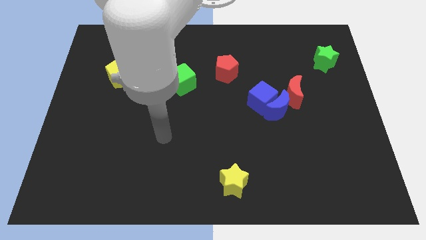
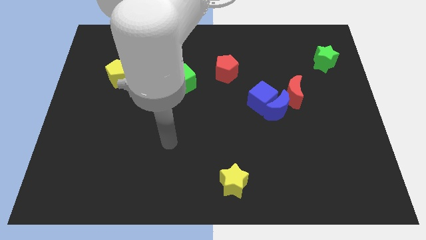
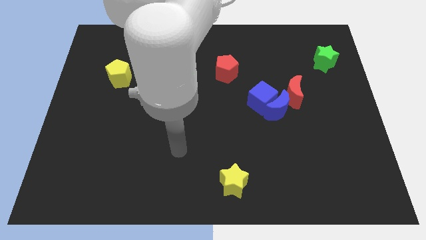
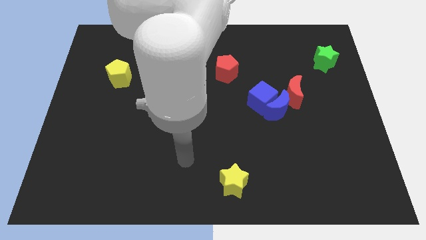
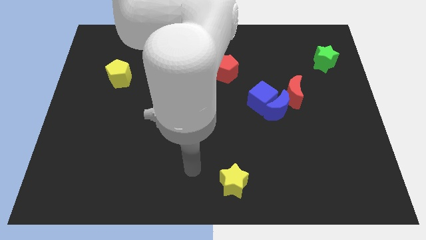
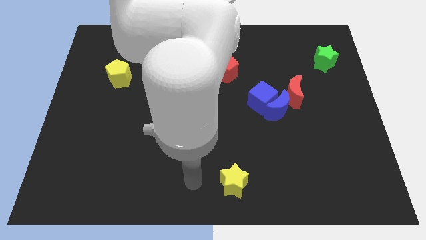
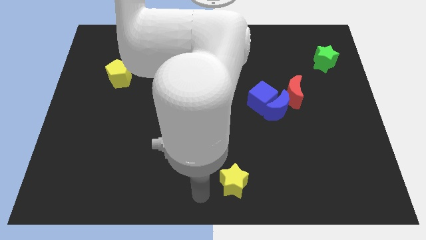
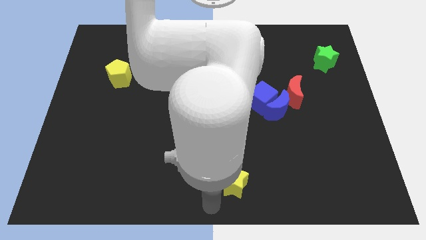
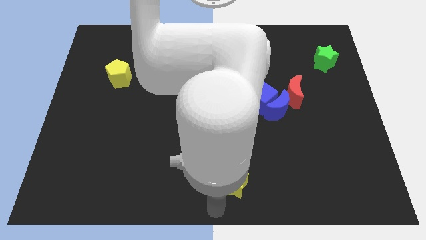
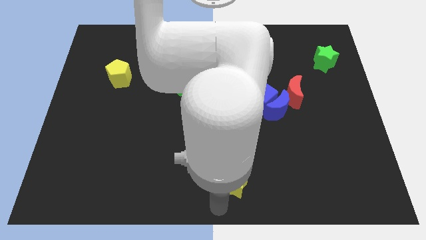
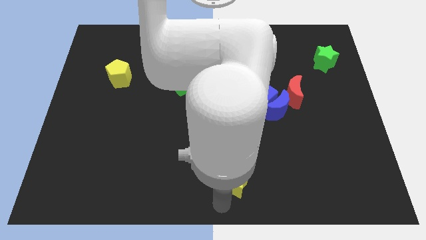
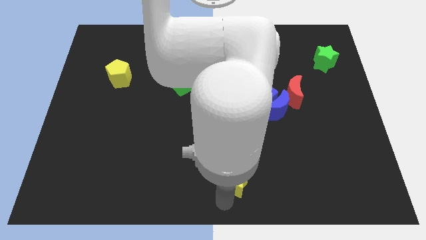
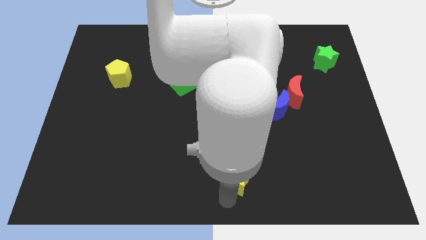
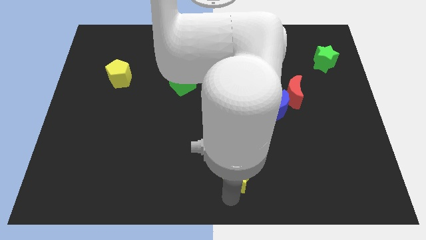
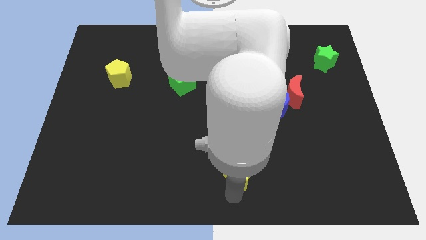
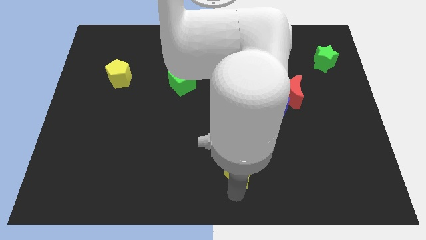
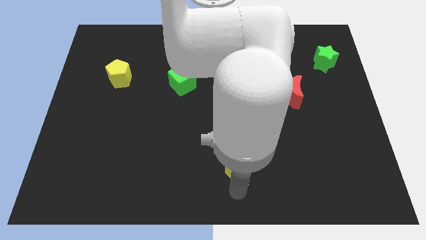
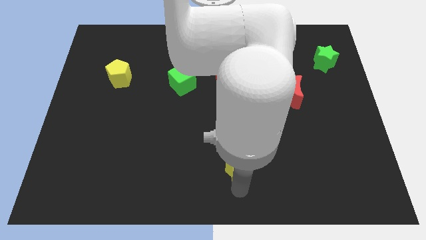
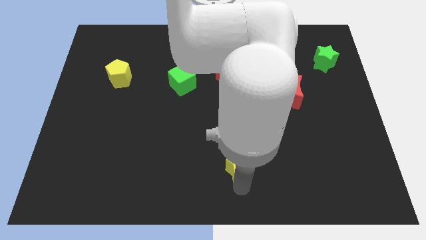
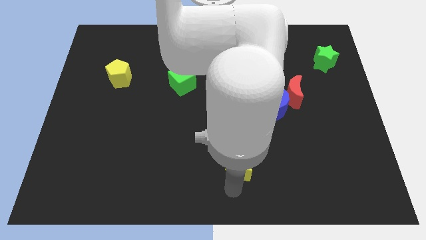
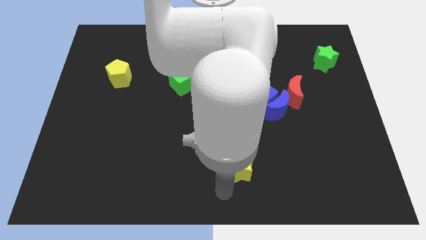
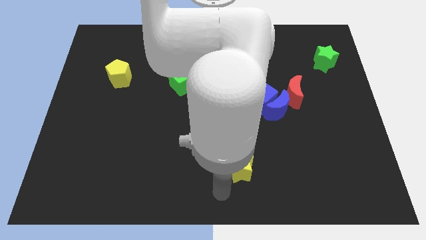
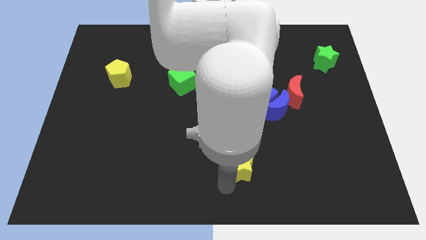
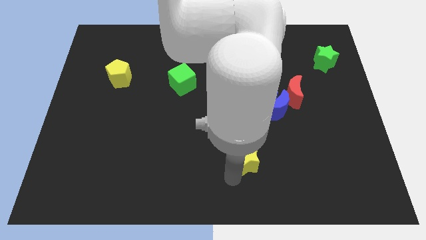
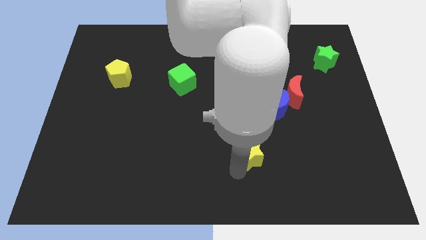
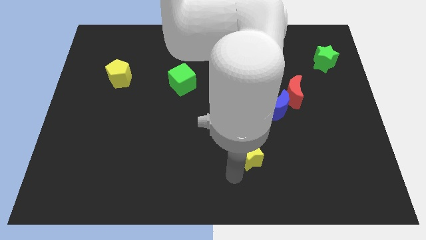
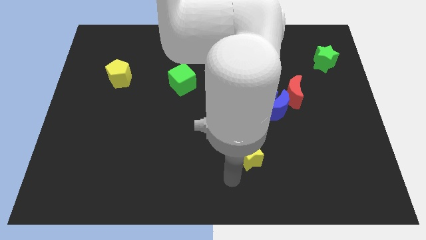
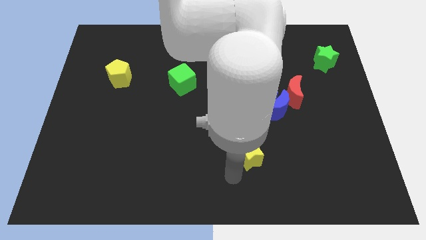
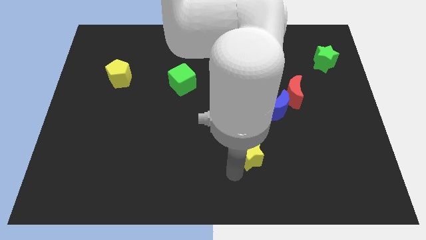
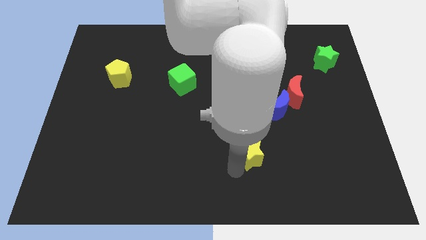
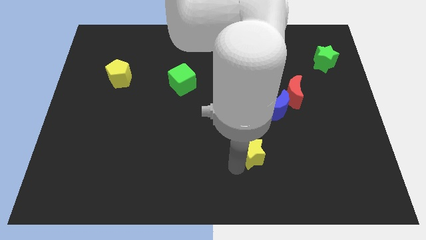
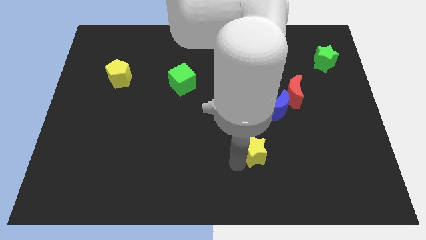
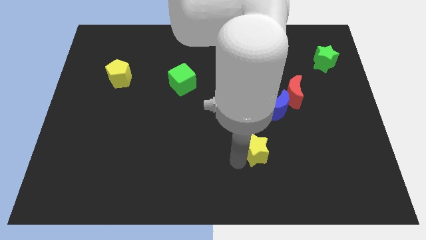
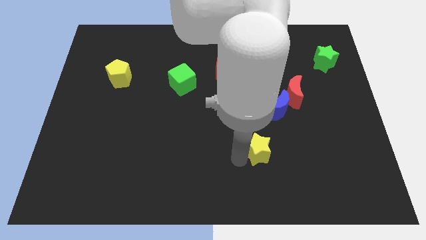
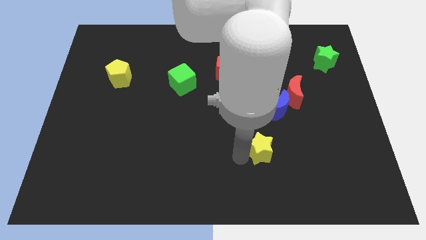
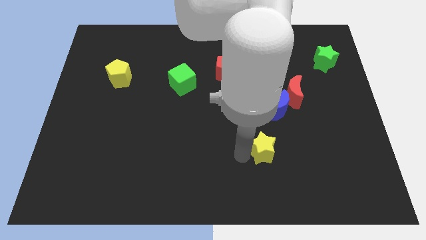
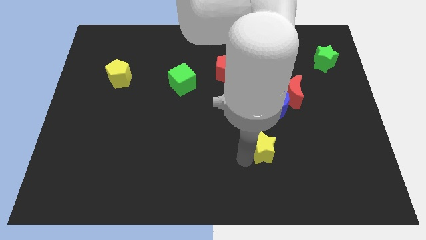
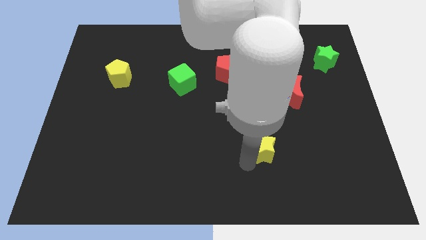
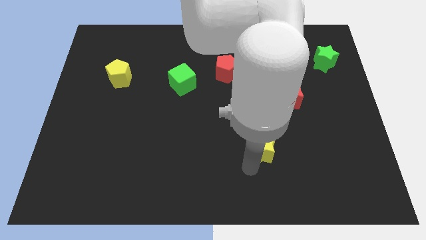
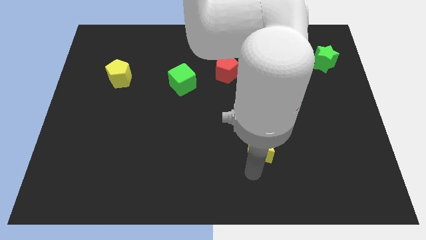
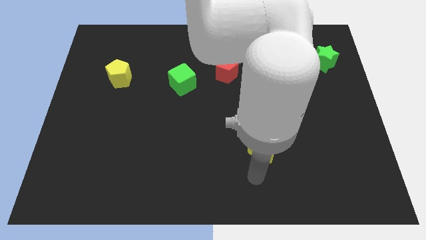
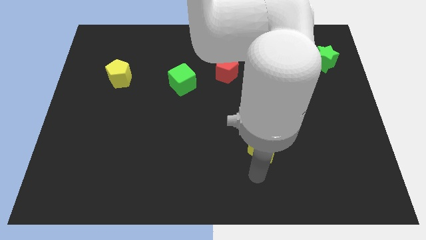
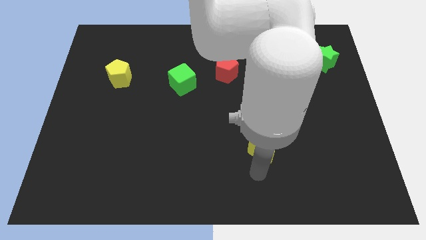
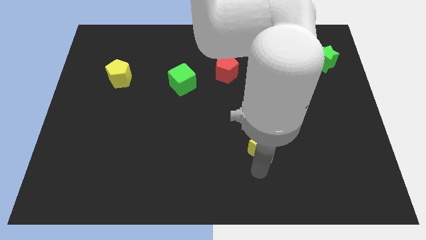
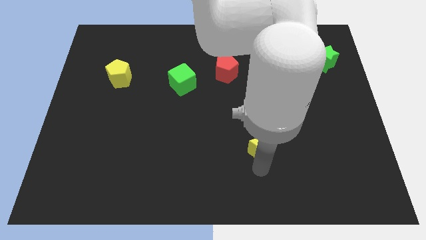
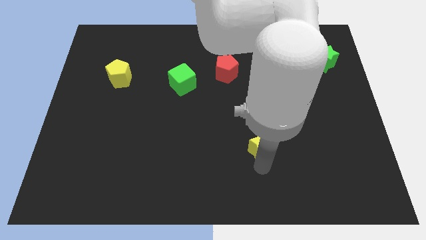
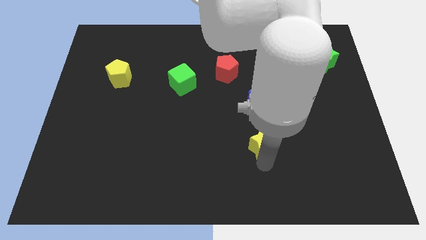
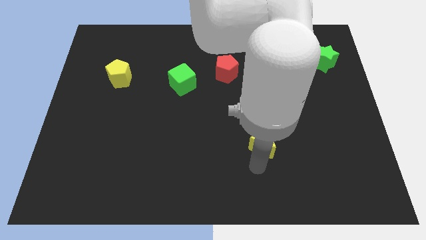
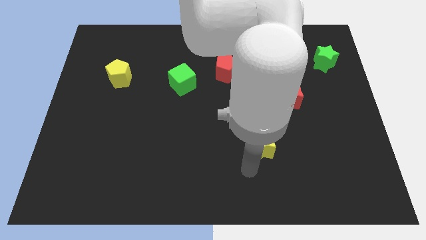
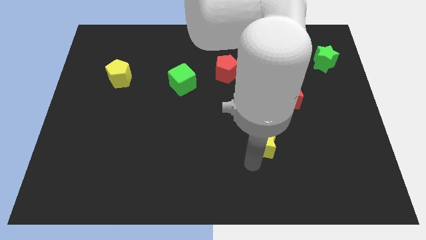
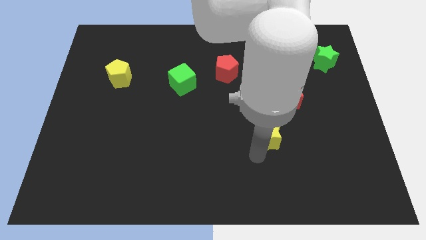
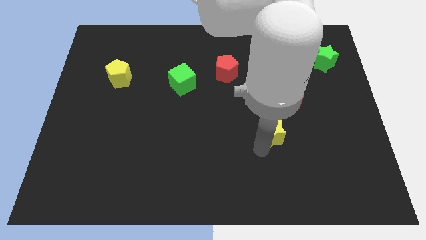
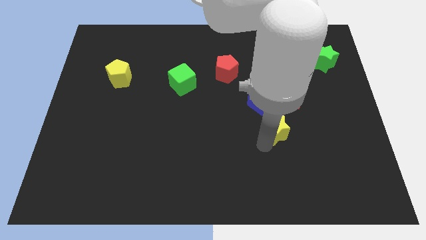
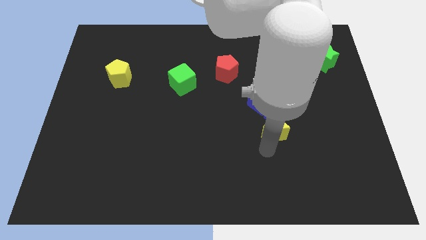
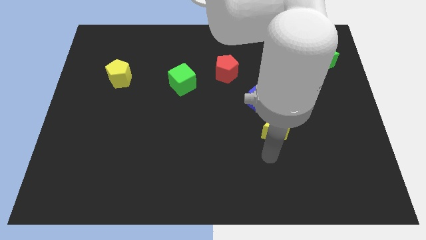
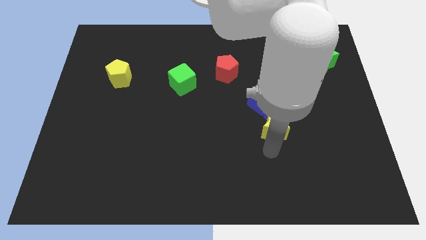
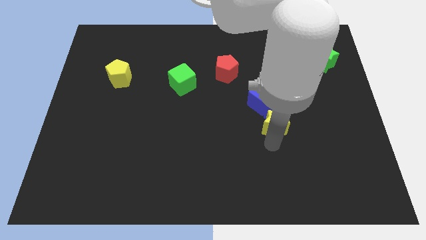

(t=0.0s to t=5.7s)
move the yellow star close to the blue moon

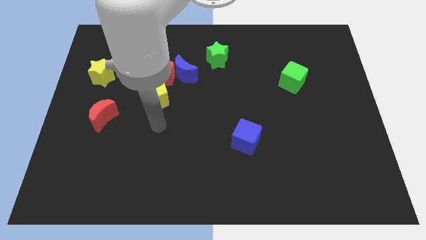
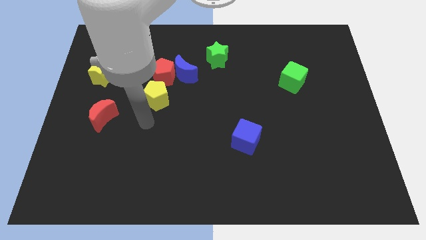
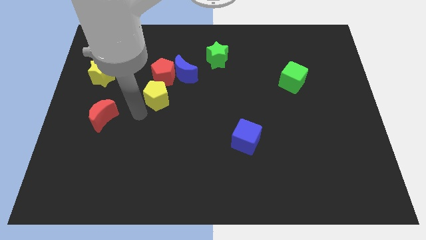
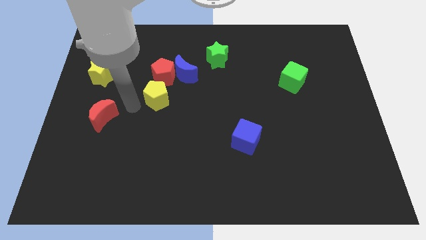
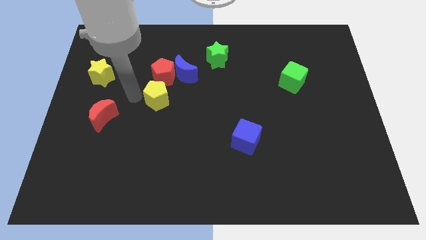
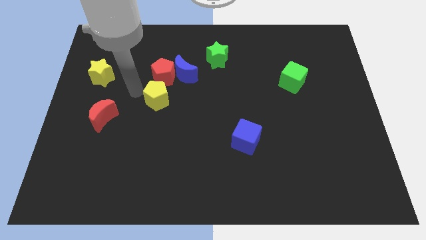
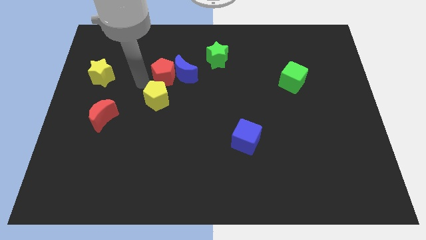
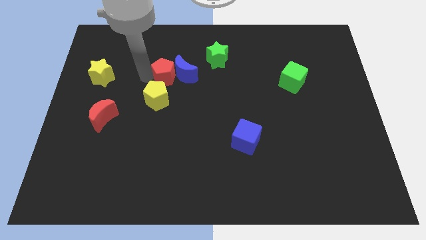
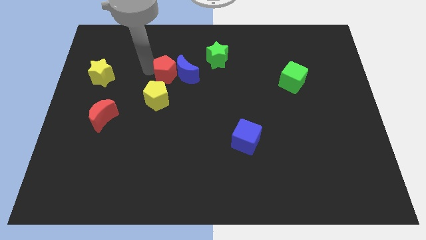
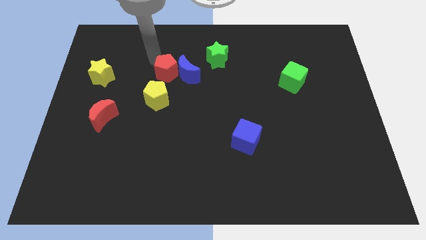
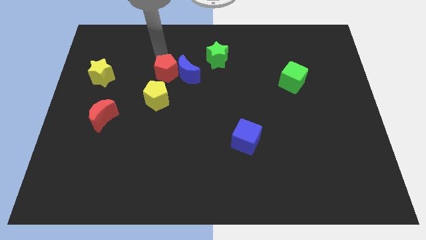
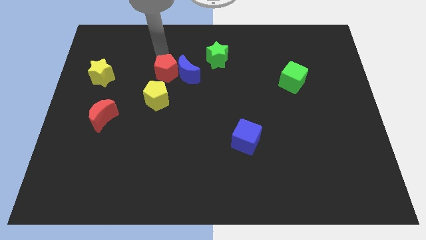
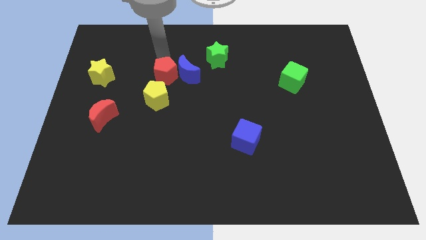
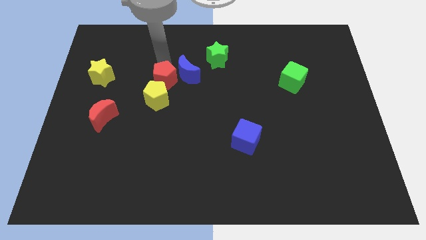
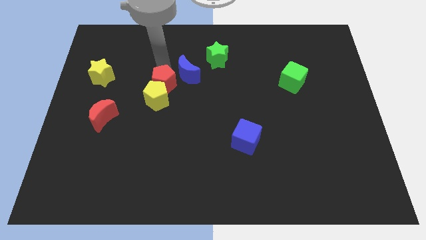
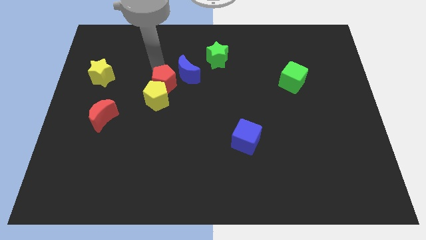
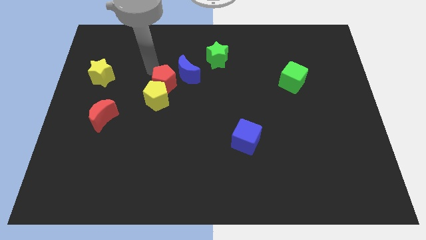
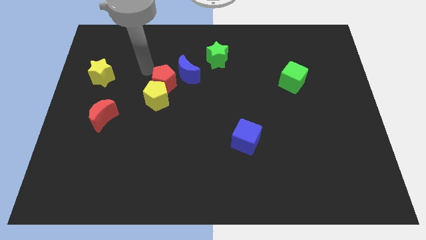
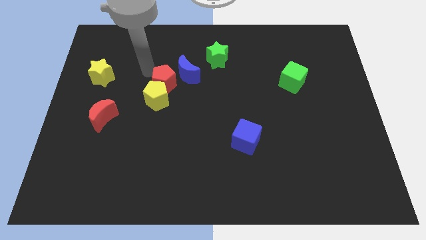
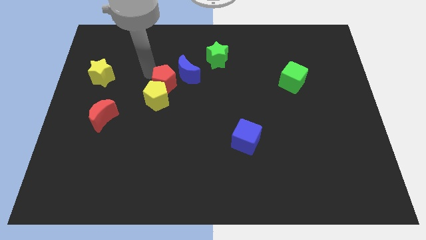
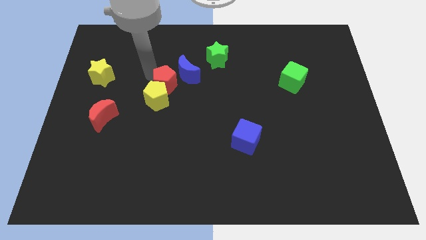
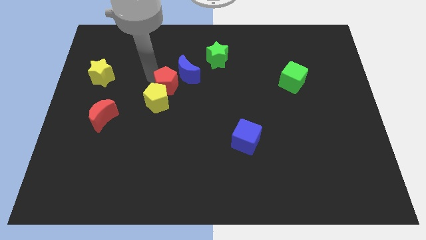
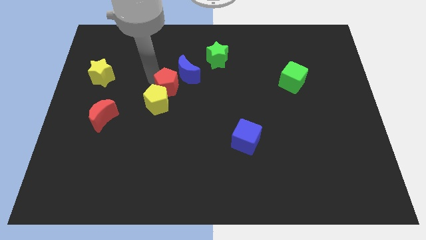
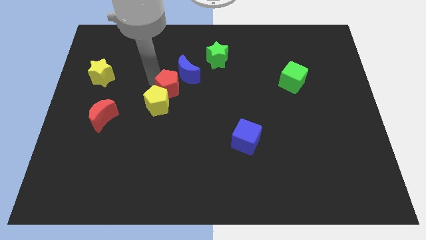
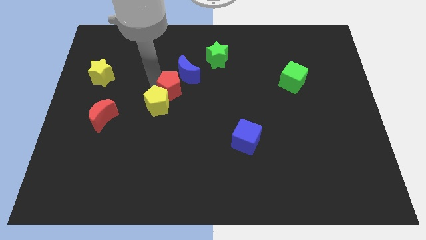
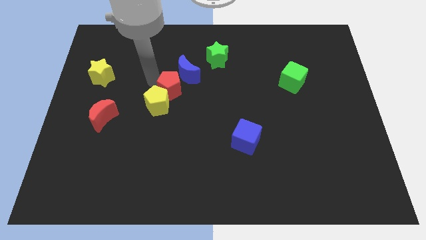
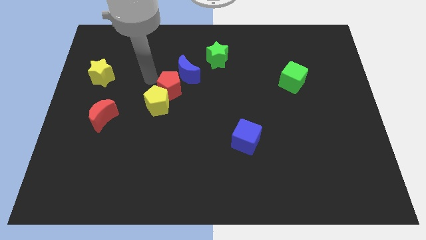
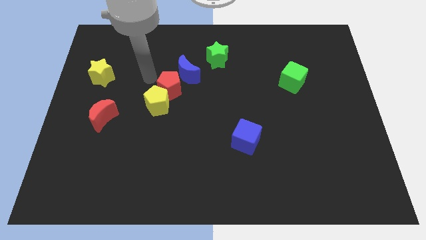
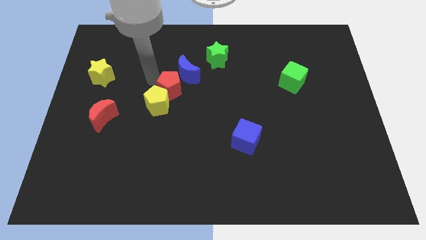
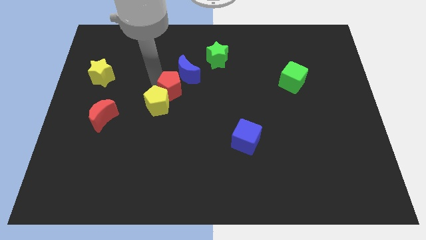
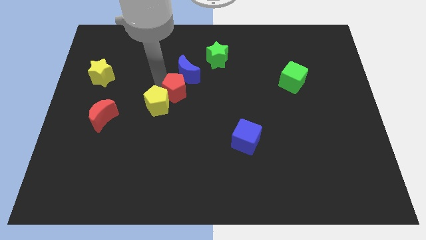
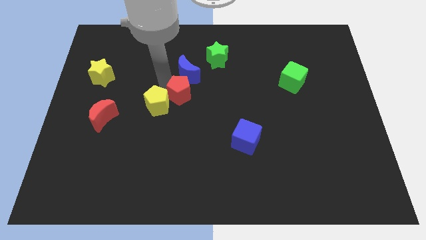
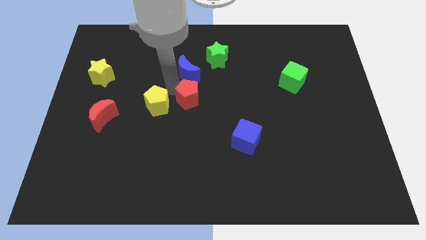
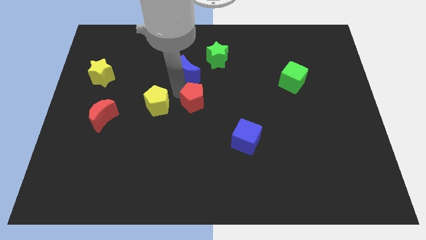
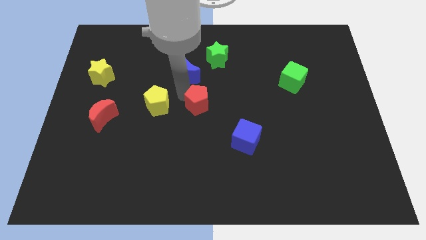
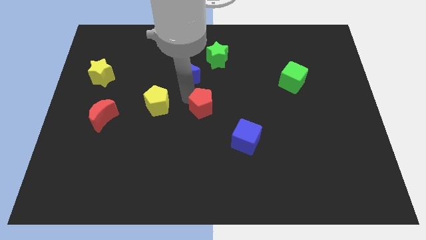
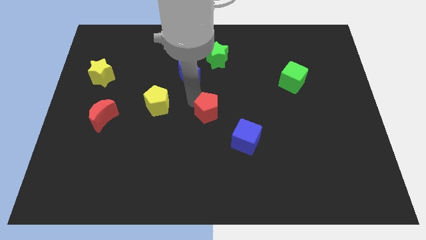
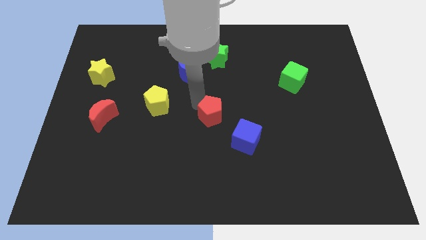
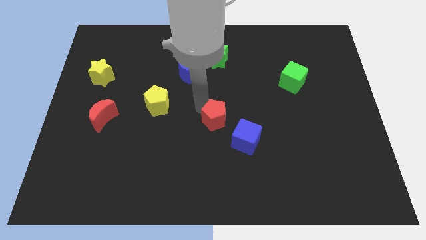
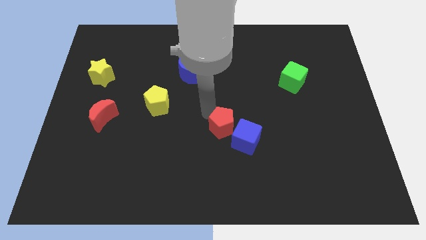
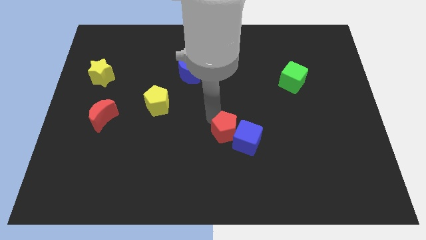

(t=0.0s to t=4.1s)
put the red pentagon to the blue cube
